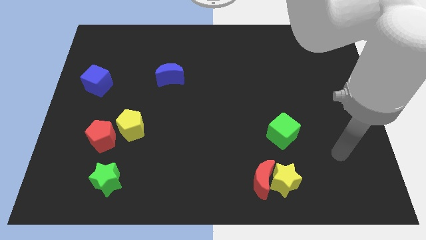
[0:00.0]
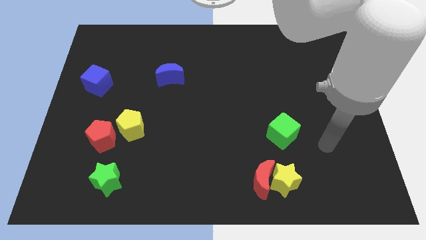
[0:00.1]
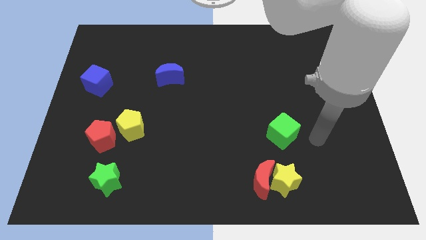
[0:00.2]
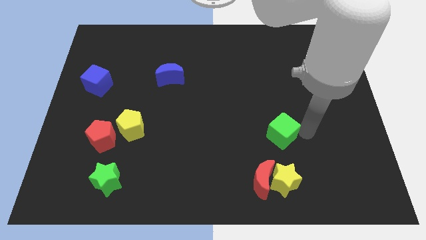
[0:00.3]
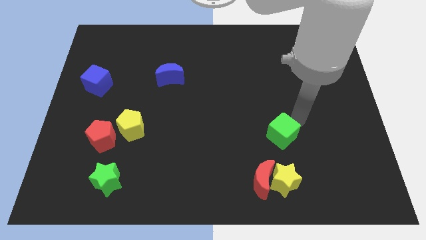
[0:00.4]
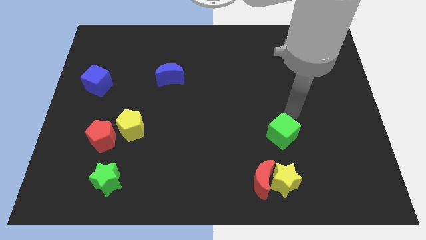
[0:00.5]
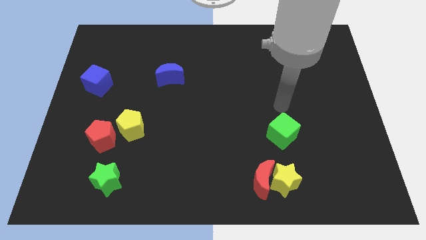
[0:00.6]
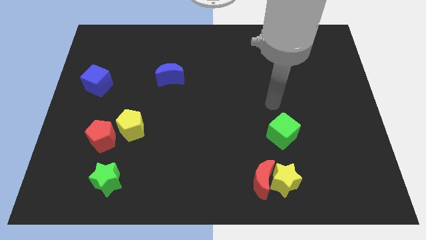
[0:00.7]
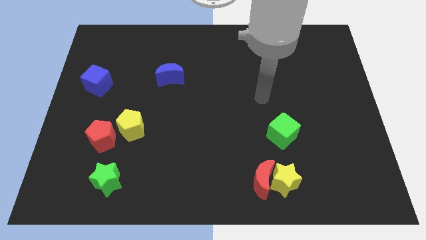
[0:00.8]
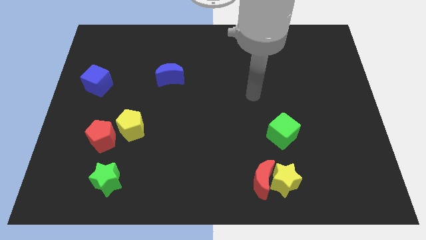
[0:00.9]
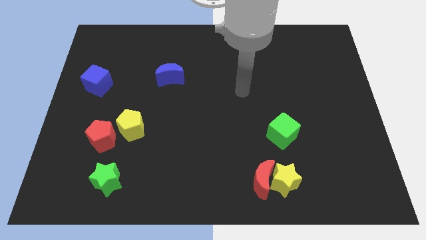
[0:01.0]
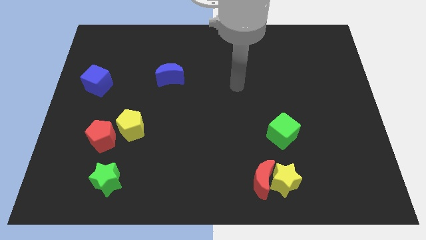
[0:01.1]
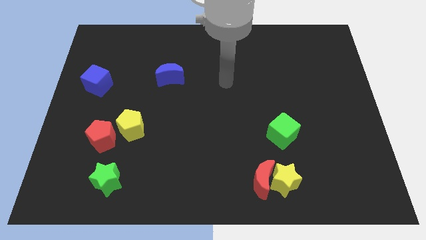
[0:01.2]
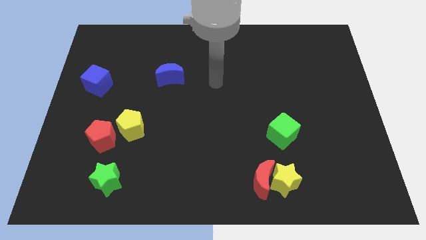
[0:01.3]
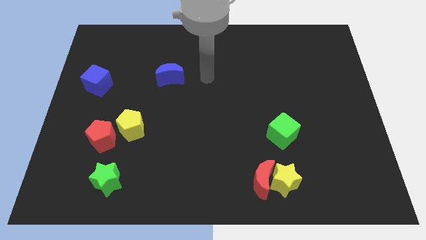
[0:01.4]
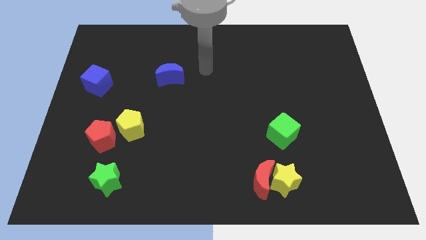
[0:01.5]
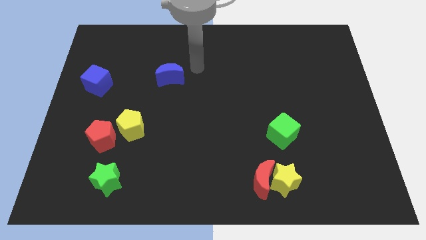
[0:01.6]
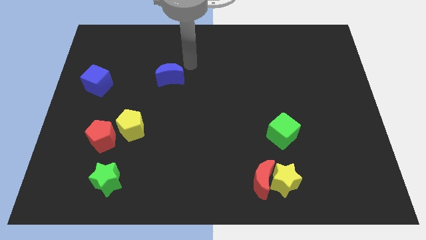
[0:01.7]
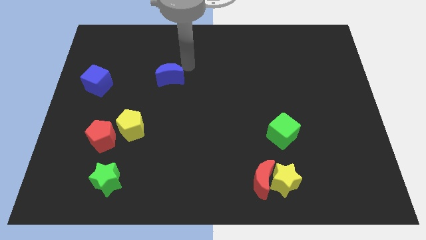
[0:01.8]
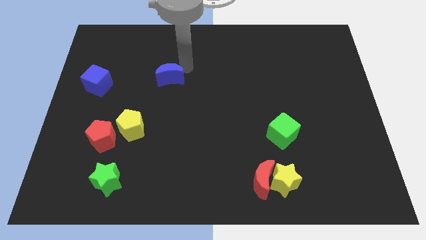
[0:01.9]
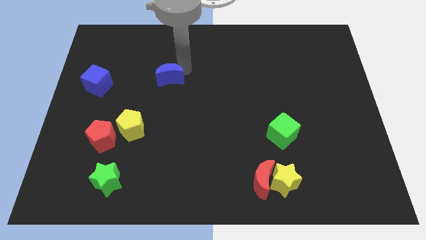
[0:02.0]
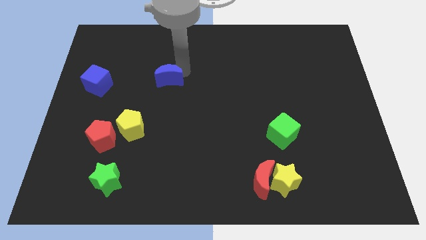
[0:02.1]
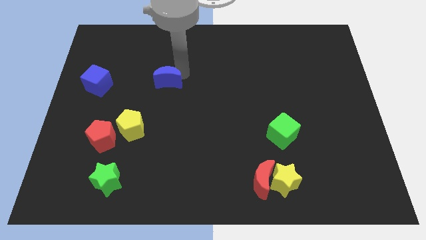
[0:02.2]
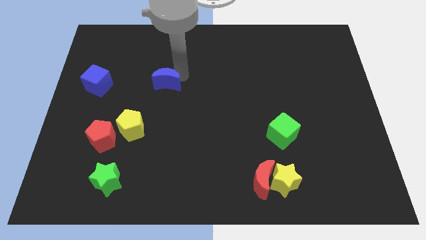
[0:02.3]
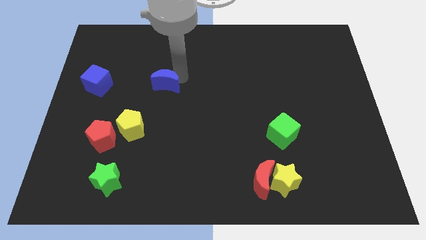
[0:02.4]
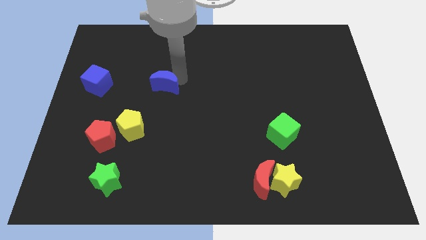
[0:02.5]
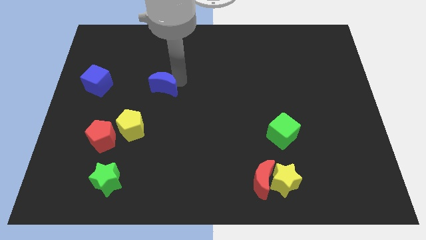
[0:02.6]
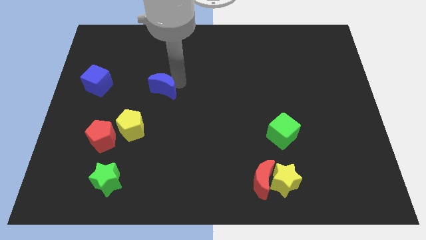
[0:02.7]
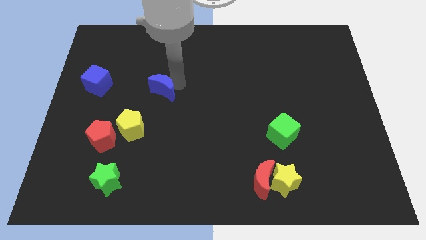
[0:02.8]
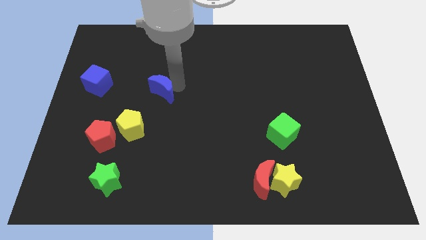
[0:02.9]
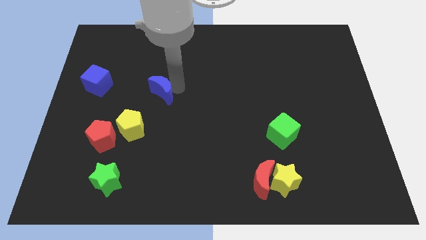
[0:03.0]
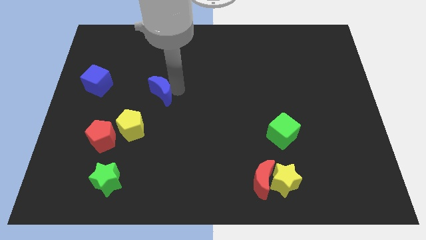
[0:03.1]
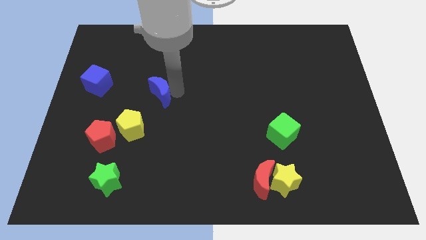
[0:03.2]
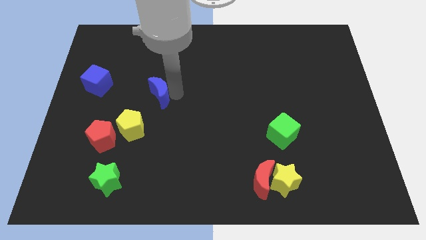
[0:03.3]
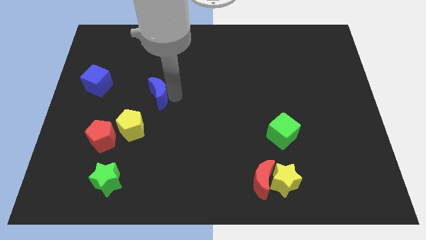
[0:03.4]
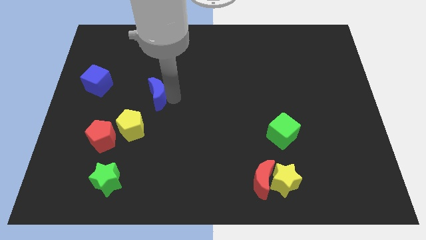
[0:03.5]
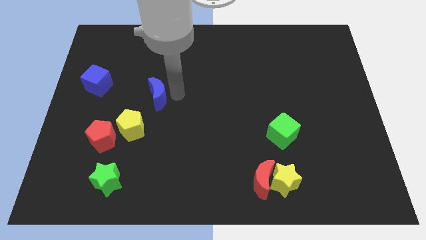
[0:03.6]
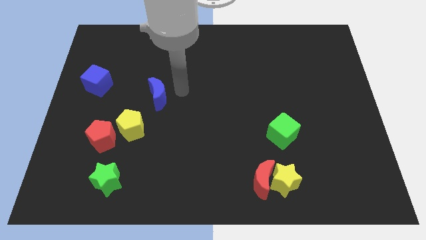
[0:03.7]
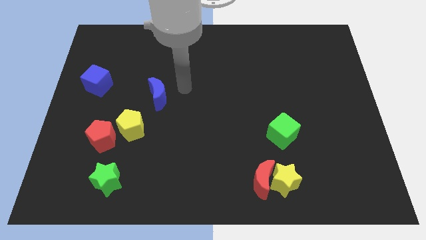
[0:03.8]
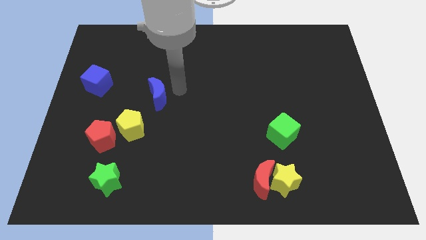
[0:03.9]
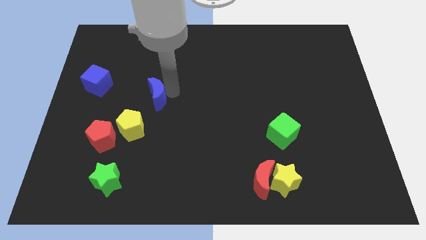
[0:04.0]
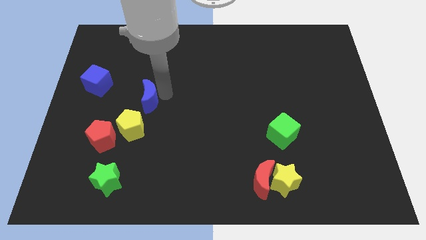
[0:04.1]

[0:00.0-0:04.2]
slide the blue moon slightly diagonally downwards and left

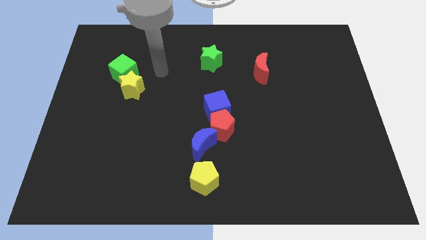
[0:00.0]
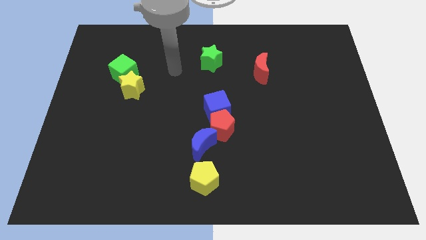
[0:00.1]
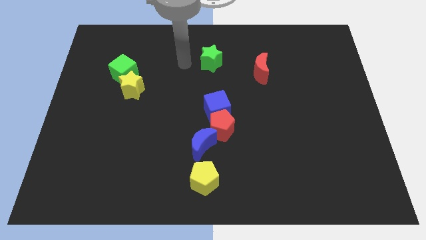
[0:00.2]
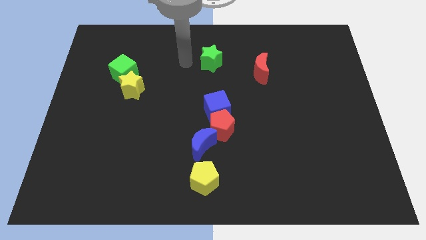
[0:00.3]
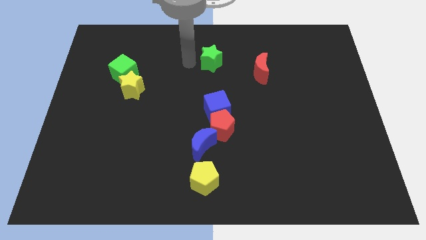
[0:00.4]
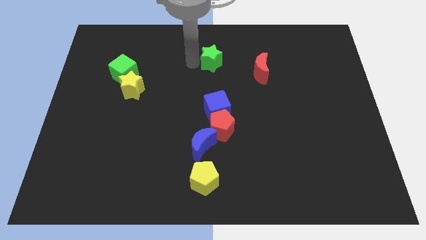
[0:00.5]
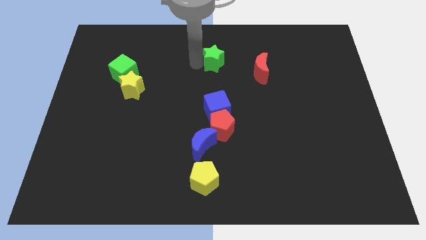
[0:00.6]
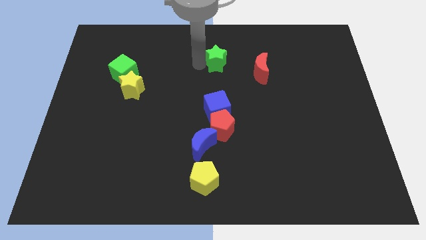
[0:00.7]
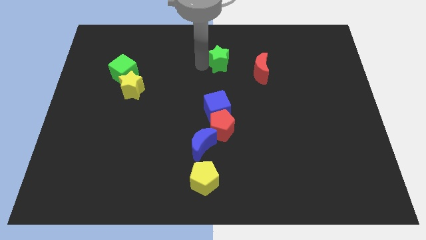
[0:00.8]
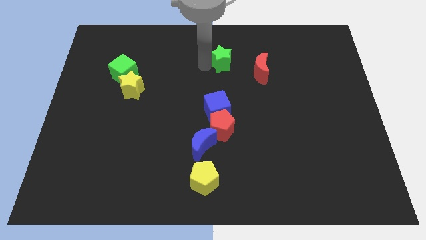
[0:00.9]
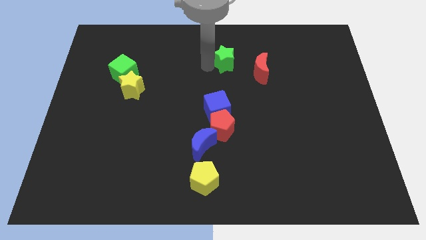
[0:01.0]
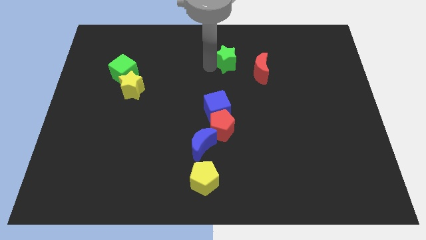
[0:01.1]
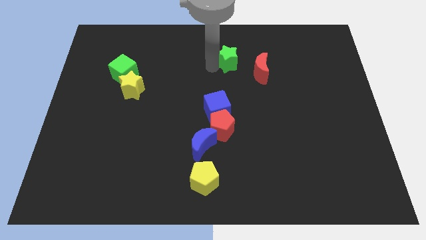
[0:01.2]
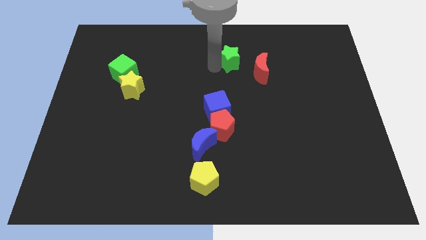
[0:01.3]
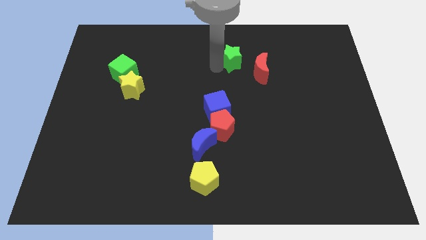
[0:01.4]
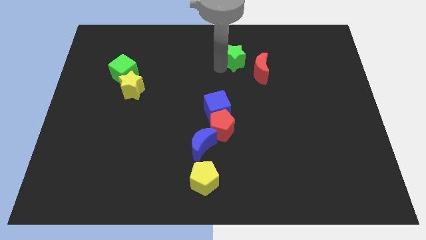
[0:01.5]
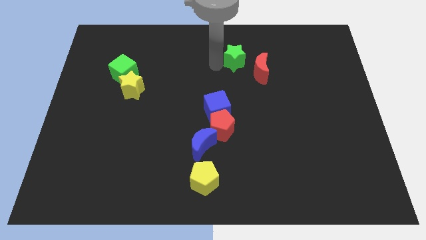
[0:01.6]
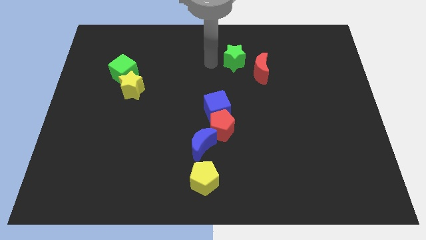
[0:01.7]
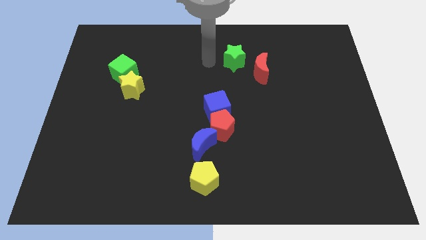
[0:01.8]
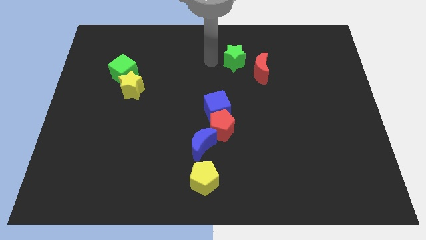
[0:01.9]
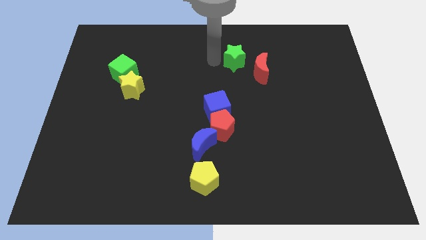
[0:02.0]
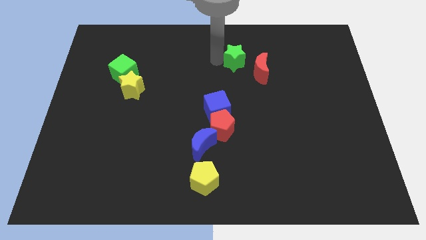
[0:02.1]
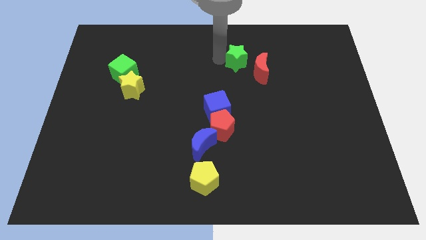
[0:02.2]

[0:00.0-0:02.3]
push the green star right slightly

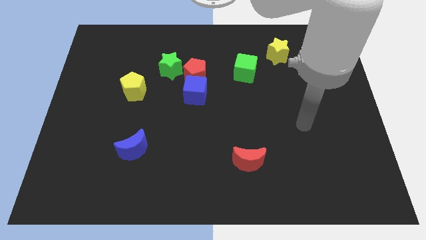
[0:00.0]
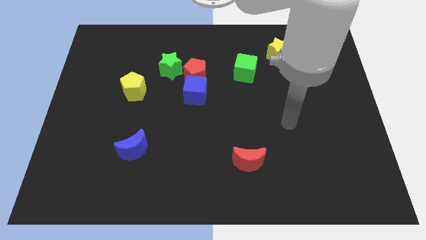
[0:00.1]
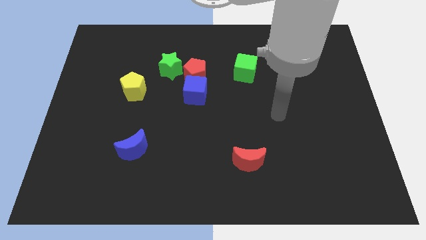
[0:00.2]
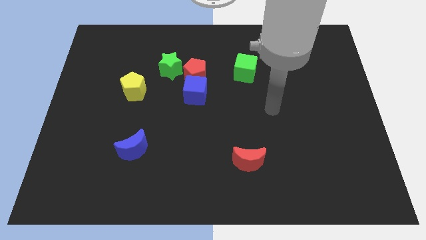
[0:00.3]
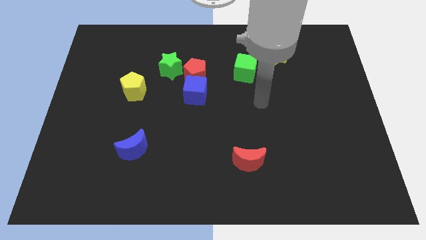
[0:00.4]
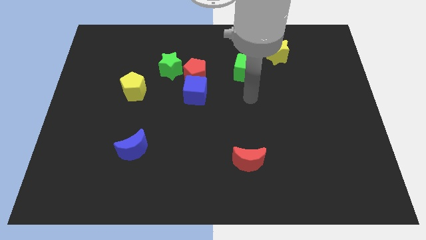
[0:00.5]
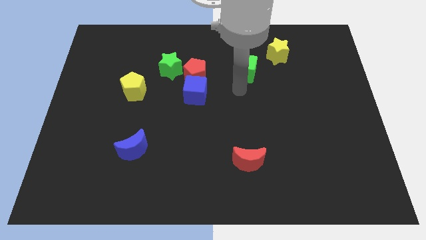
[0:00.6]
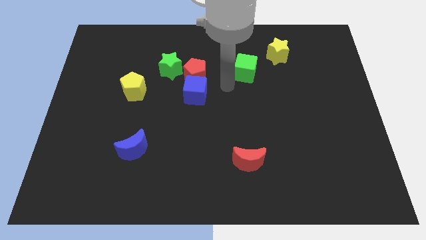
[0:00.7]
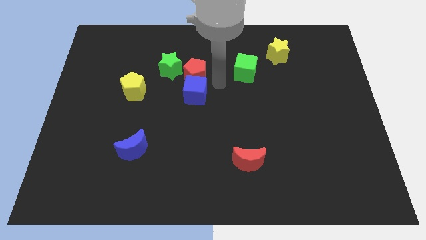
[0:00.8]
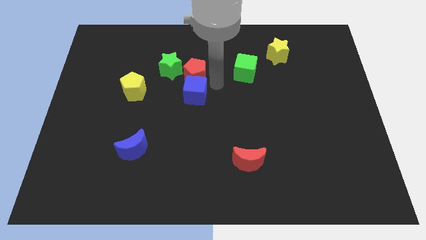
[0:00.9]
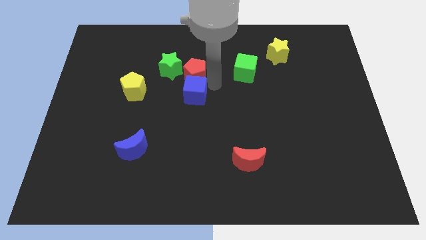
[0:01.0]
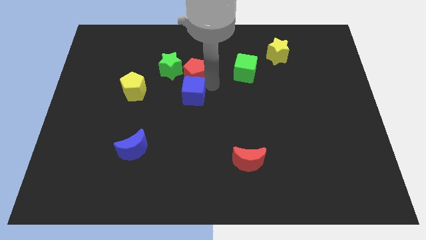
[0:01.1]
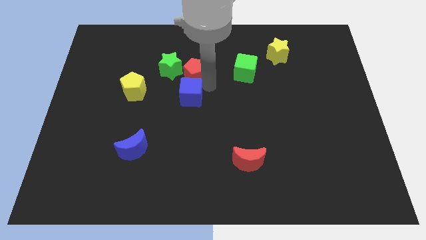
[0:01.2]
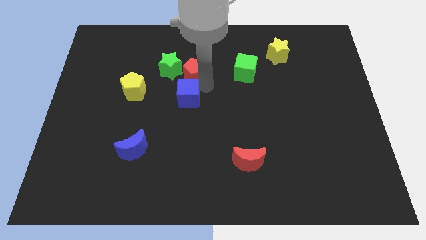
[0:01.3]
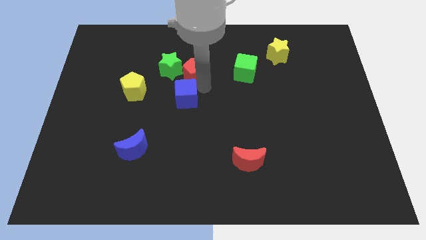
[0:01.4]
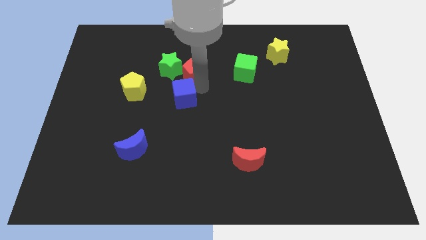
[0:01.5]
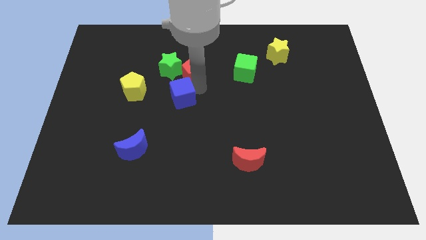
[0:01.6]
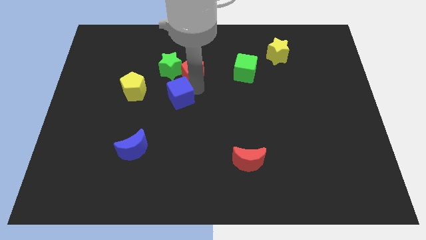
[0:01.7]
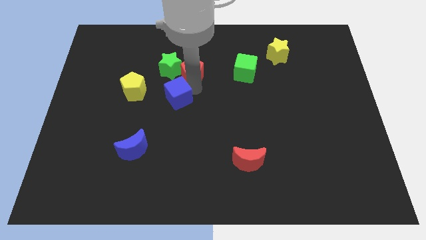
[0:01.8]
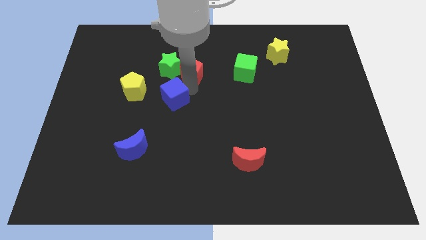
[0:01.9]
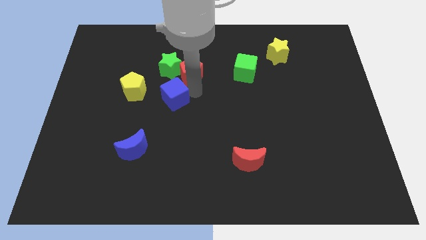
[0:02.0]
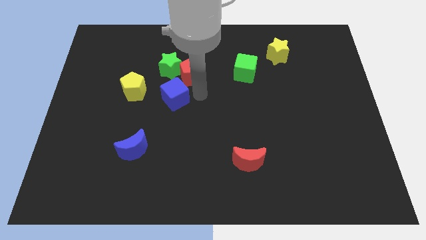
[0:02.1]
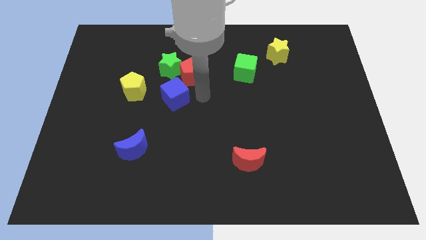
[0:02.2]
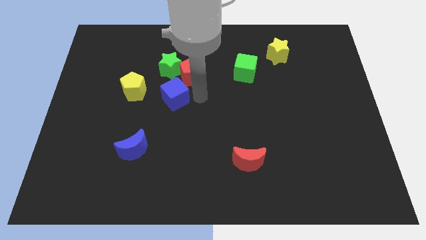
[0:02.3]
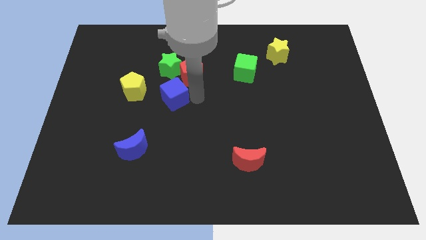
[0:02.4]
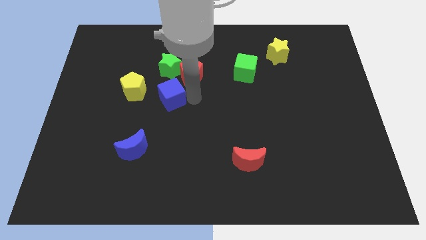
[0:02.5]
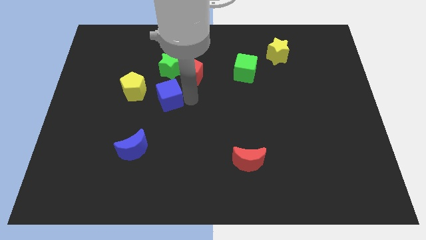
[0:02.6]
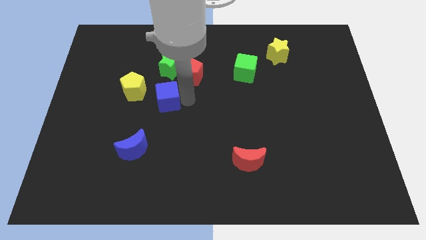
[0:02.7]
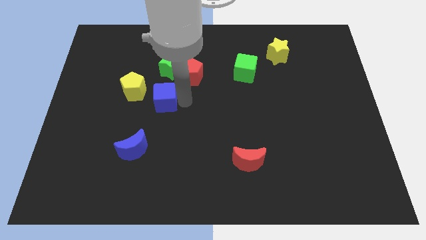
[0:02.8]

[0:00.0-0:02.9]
push the blue cube to the left a little bit
